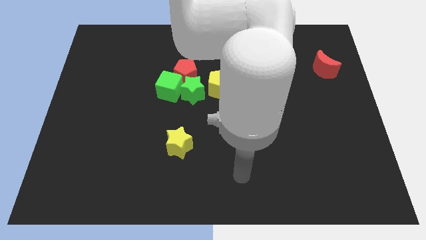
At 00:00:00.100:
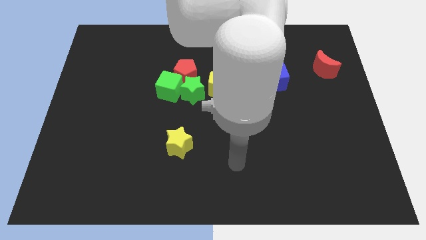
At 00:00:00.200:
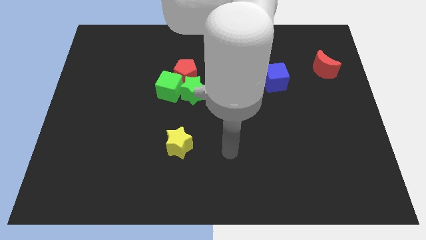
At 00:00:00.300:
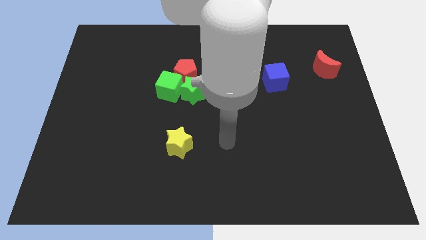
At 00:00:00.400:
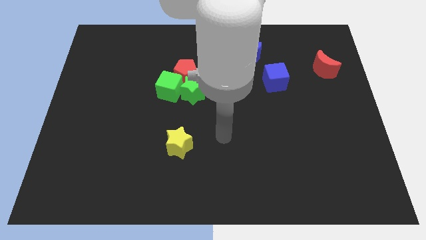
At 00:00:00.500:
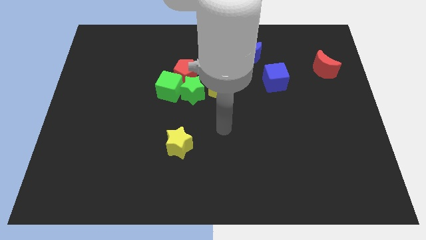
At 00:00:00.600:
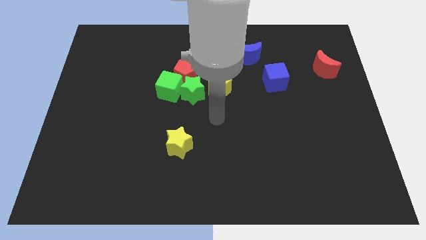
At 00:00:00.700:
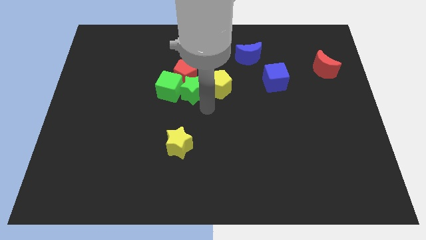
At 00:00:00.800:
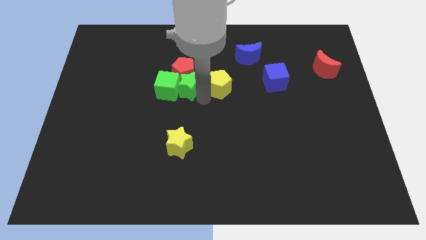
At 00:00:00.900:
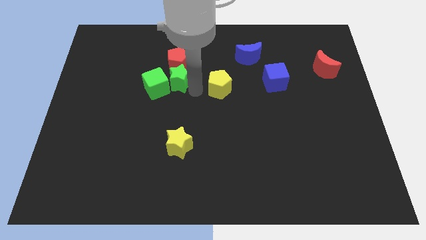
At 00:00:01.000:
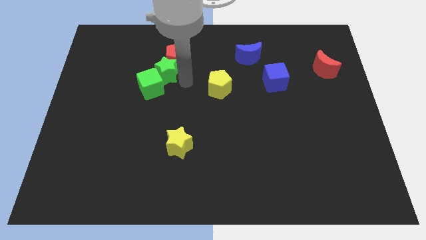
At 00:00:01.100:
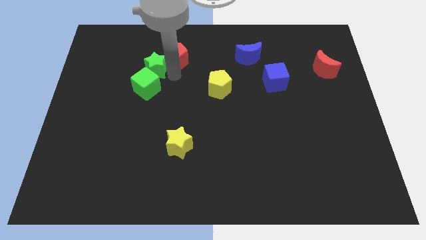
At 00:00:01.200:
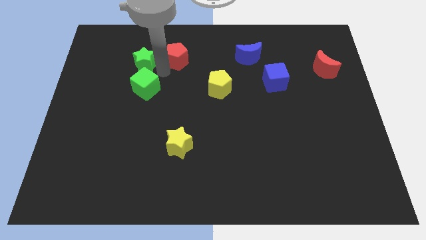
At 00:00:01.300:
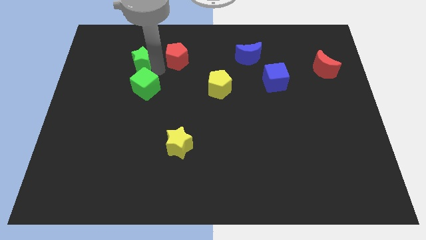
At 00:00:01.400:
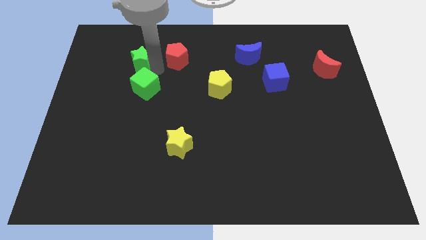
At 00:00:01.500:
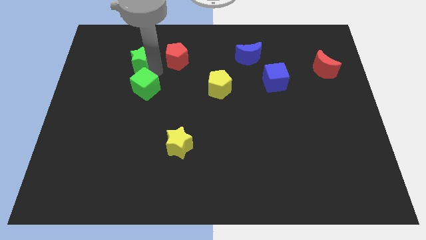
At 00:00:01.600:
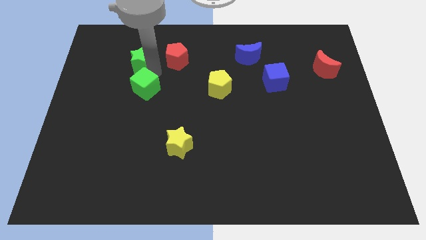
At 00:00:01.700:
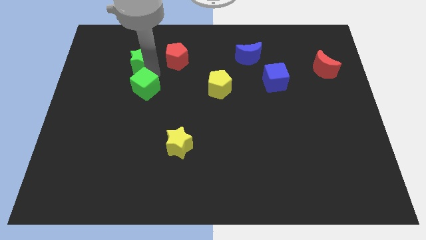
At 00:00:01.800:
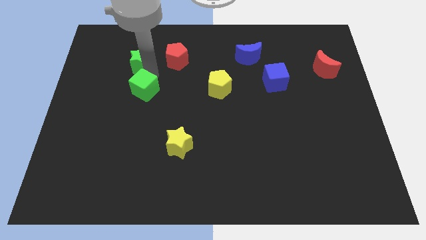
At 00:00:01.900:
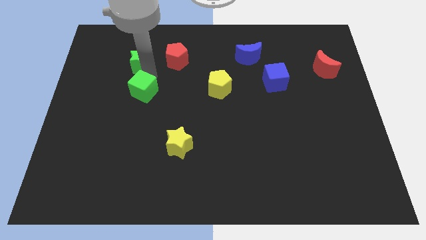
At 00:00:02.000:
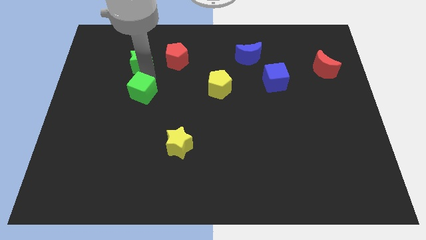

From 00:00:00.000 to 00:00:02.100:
separate the green cube from the red pentagon and green star

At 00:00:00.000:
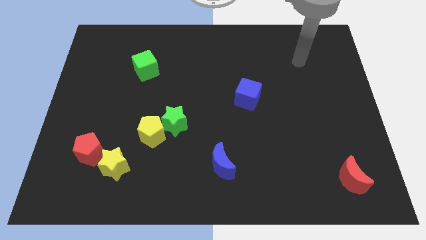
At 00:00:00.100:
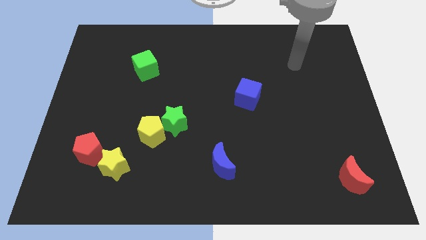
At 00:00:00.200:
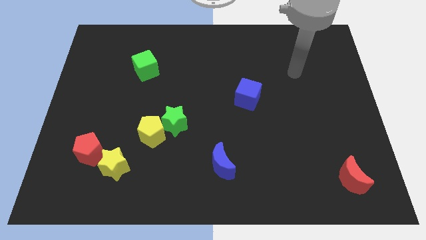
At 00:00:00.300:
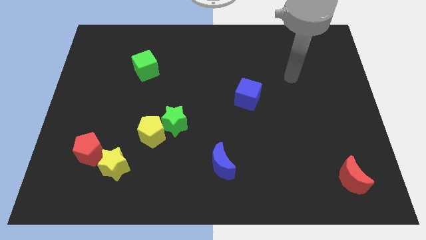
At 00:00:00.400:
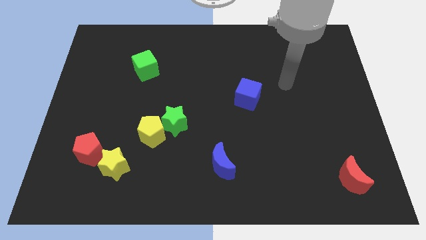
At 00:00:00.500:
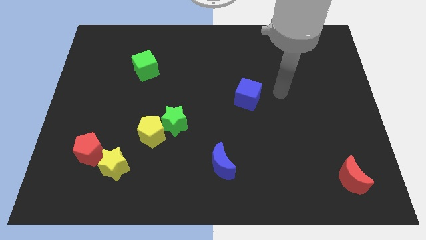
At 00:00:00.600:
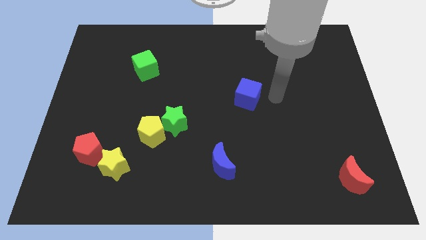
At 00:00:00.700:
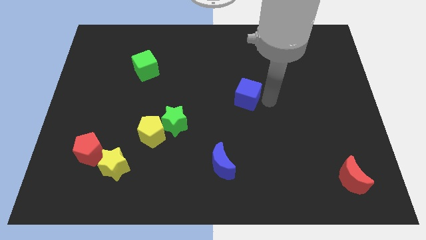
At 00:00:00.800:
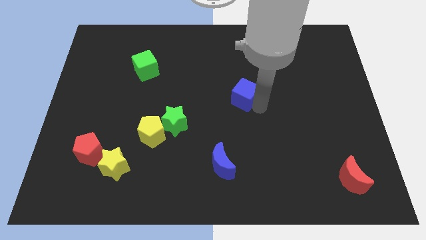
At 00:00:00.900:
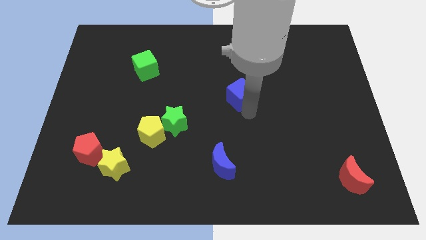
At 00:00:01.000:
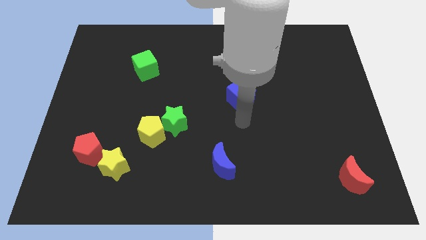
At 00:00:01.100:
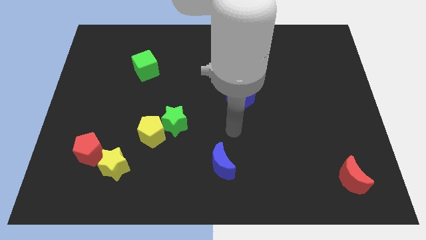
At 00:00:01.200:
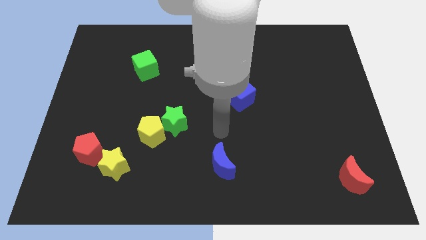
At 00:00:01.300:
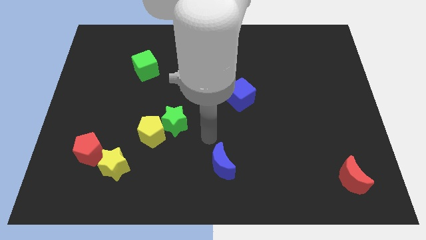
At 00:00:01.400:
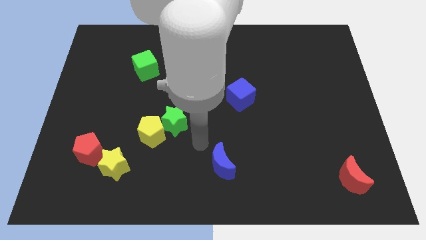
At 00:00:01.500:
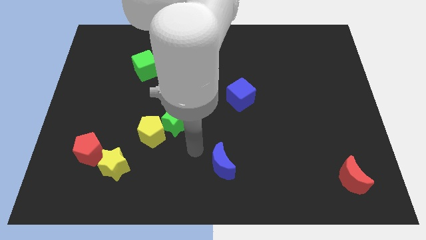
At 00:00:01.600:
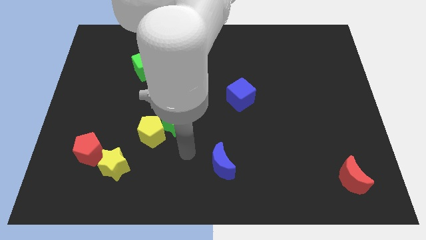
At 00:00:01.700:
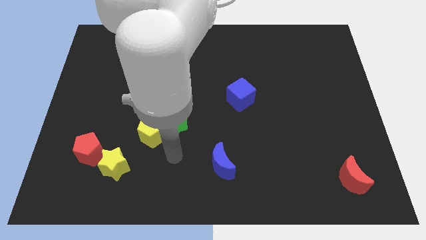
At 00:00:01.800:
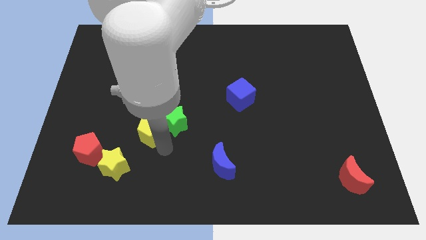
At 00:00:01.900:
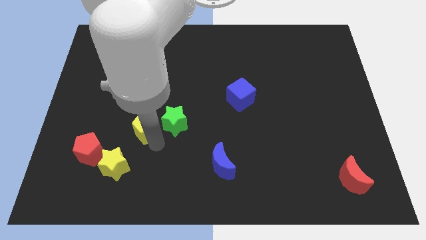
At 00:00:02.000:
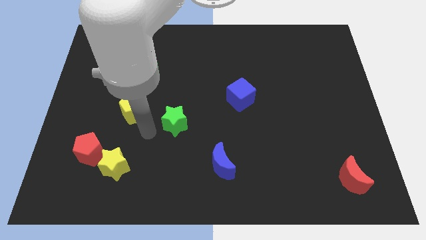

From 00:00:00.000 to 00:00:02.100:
pull the green star apart from the yellow pentagon

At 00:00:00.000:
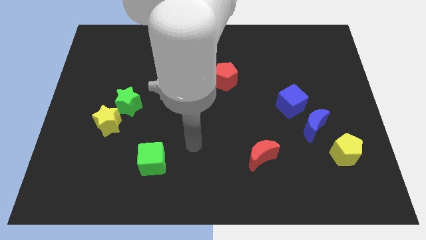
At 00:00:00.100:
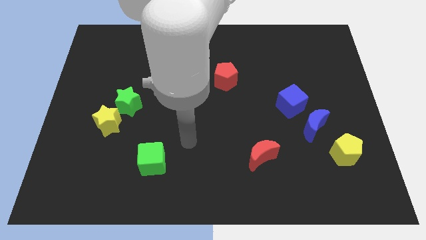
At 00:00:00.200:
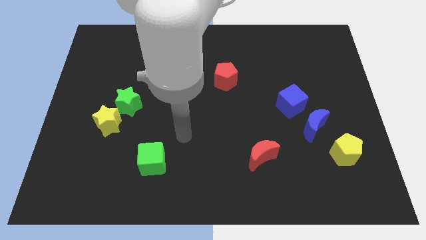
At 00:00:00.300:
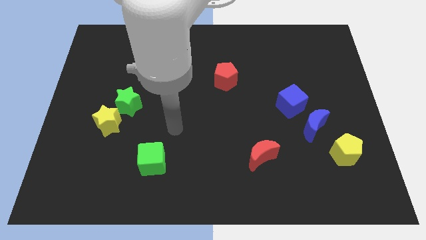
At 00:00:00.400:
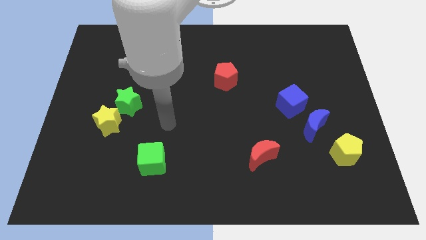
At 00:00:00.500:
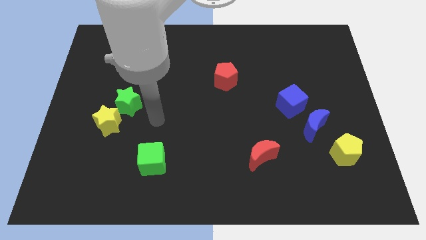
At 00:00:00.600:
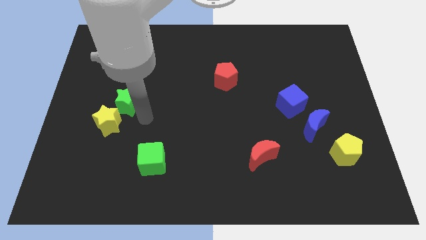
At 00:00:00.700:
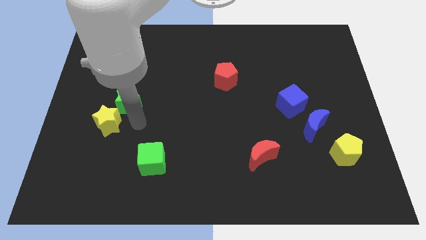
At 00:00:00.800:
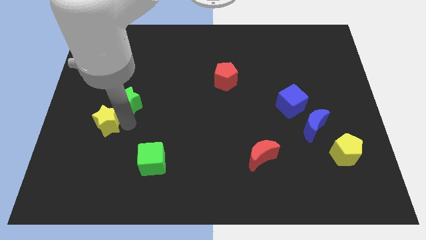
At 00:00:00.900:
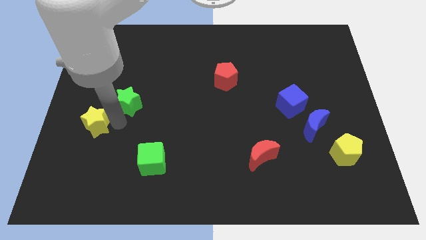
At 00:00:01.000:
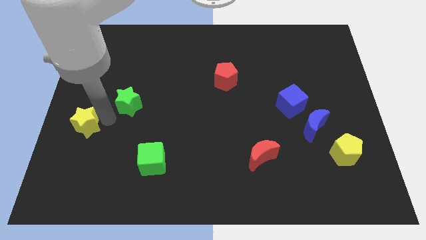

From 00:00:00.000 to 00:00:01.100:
pull the green star apart from the yellow star

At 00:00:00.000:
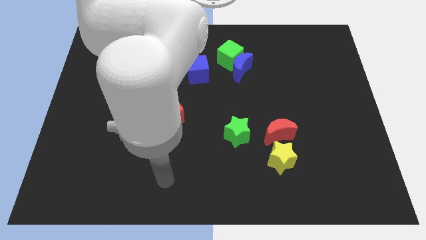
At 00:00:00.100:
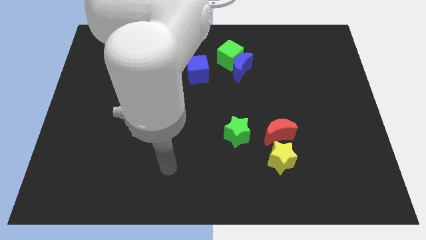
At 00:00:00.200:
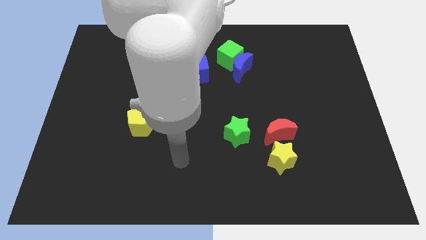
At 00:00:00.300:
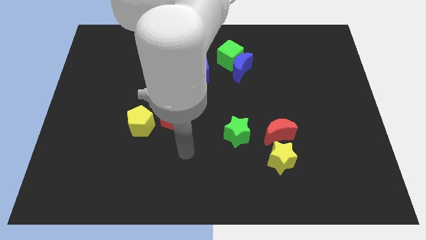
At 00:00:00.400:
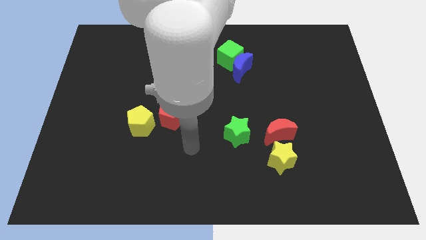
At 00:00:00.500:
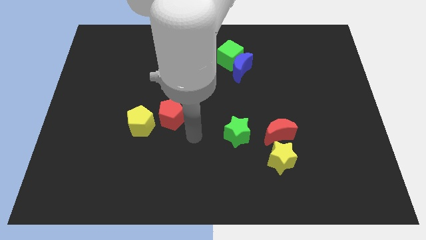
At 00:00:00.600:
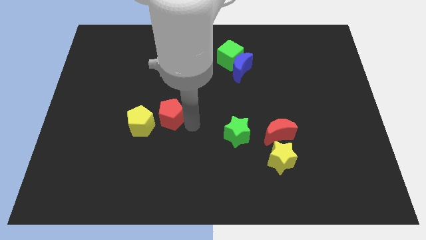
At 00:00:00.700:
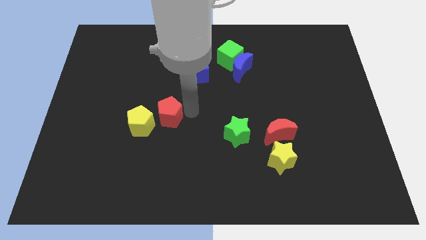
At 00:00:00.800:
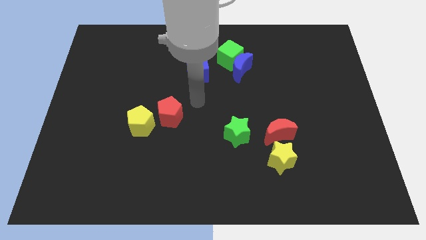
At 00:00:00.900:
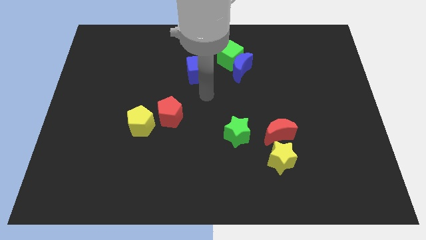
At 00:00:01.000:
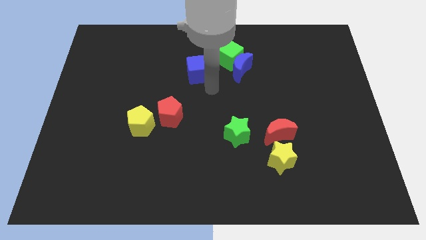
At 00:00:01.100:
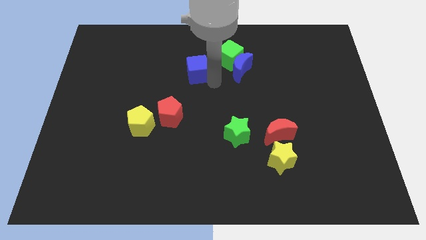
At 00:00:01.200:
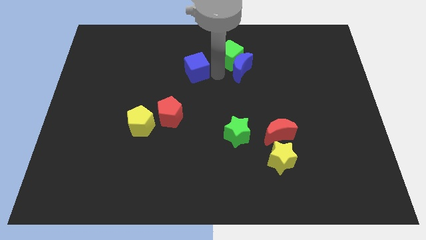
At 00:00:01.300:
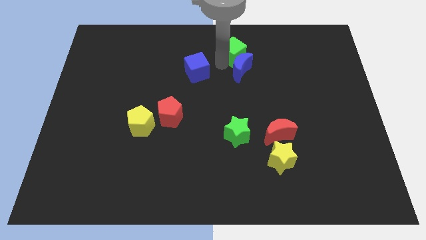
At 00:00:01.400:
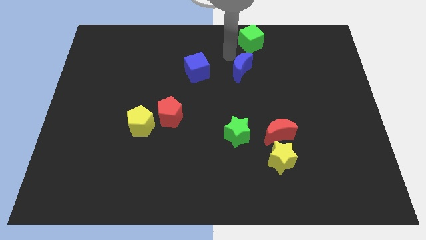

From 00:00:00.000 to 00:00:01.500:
separate the blue moon from the green cube

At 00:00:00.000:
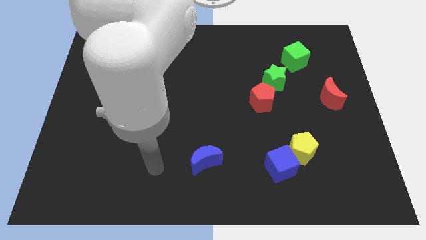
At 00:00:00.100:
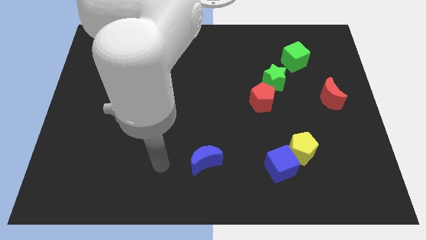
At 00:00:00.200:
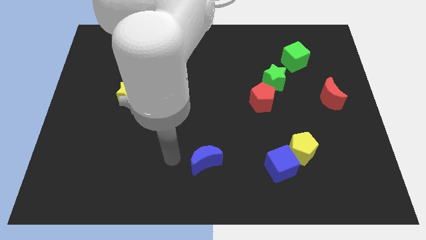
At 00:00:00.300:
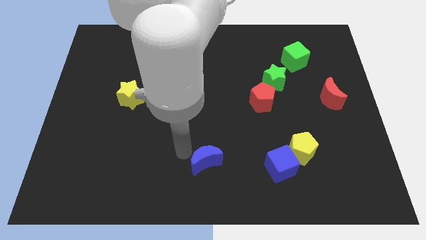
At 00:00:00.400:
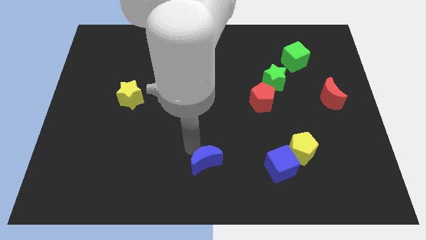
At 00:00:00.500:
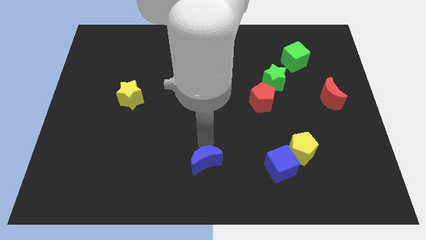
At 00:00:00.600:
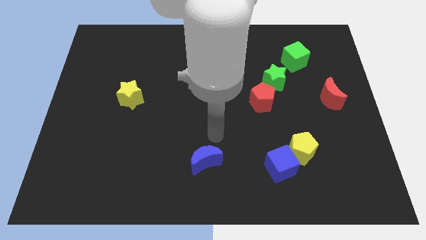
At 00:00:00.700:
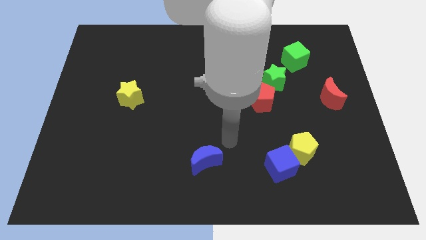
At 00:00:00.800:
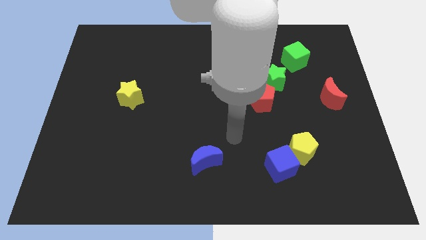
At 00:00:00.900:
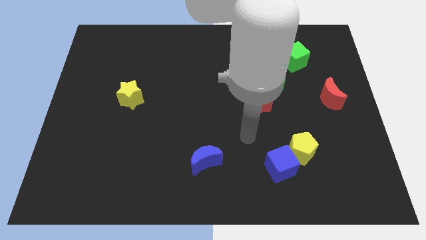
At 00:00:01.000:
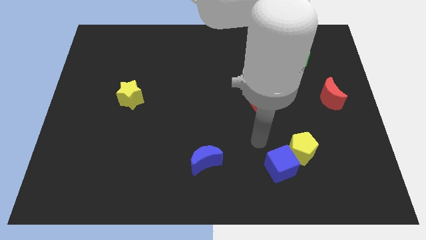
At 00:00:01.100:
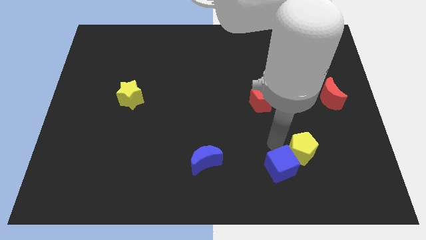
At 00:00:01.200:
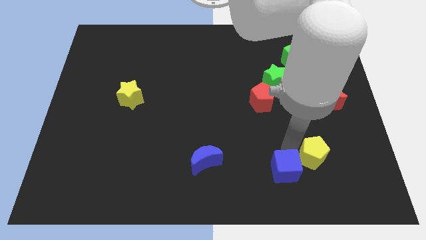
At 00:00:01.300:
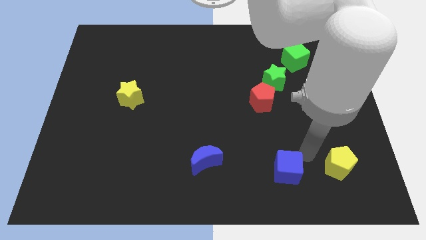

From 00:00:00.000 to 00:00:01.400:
separate the blue cube from the yellow pentagon

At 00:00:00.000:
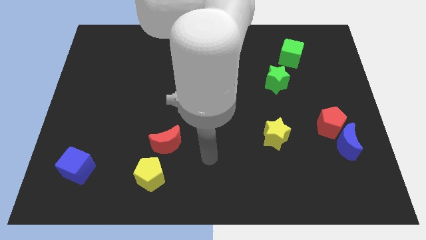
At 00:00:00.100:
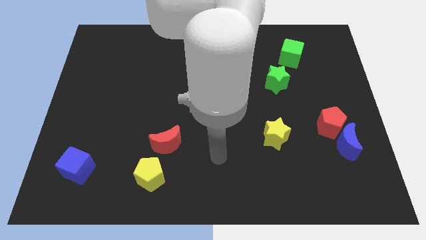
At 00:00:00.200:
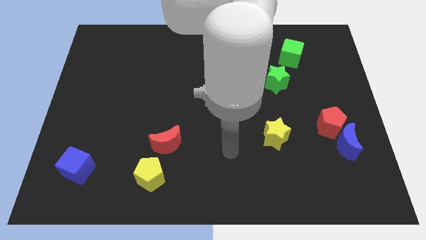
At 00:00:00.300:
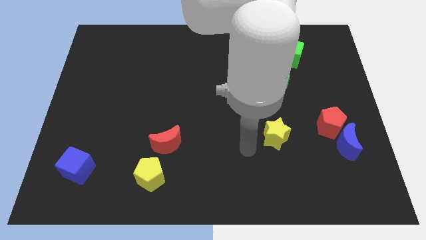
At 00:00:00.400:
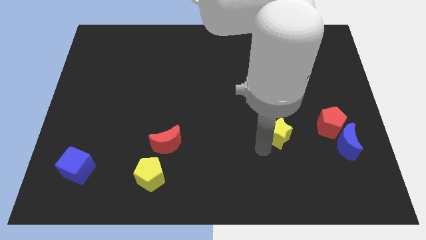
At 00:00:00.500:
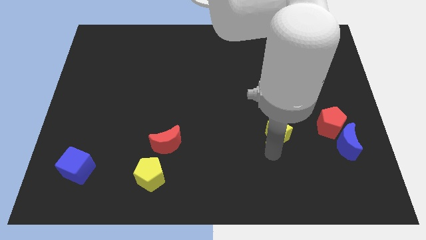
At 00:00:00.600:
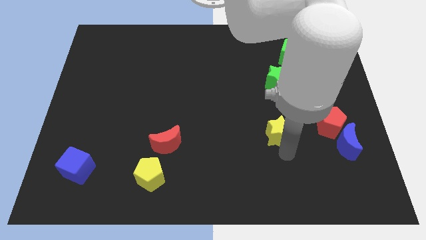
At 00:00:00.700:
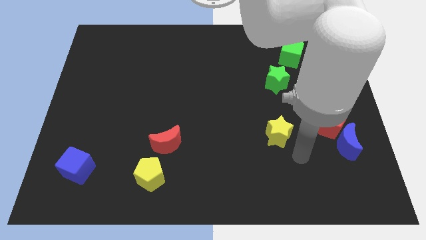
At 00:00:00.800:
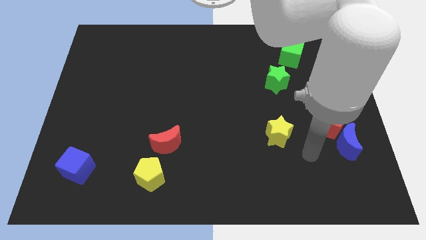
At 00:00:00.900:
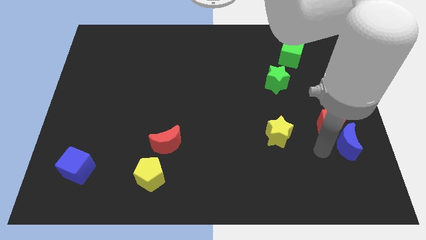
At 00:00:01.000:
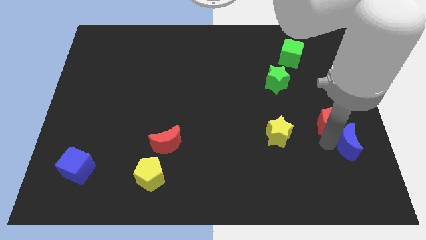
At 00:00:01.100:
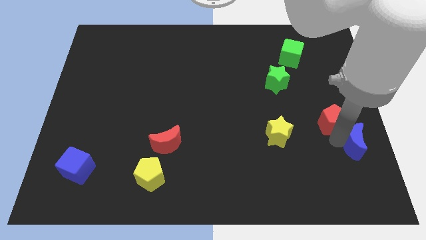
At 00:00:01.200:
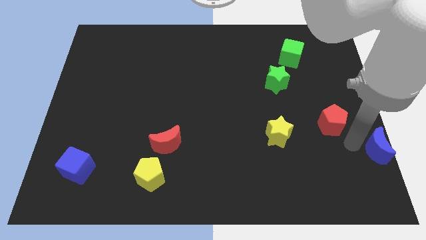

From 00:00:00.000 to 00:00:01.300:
separate the red pentagon from the blue moon
